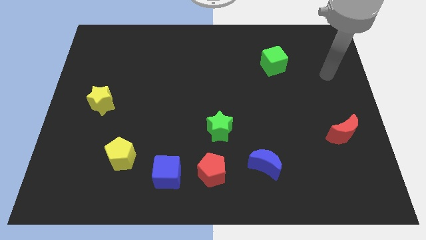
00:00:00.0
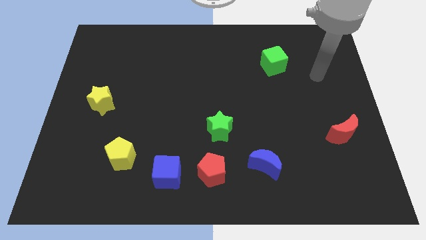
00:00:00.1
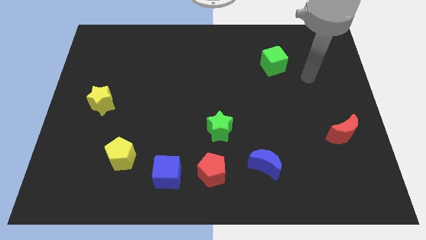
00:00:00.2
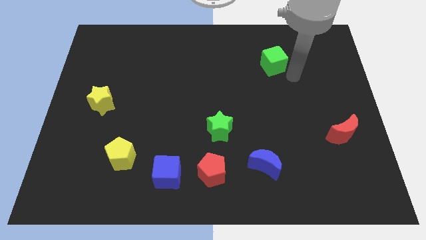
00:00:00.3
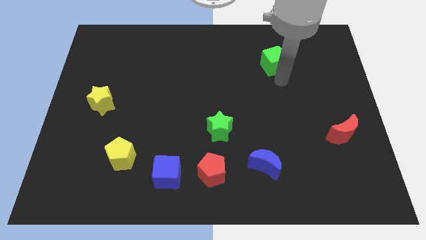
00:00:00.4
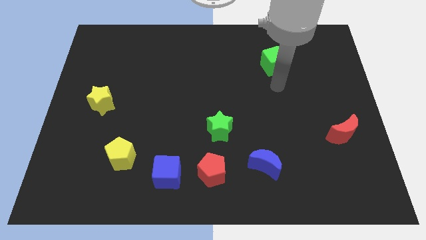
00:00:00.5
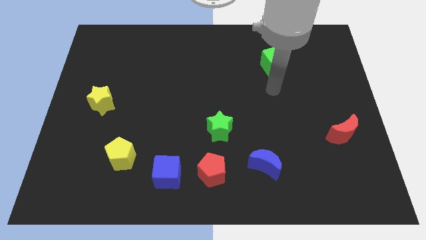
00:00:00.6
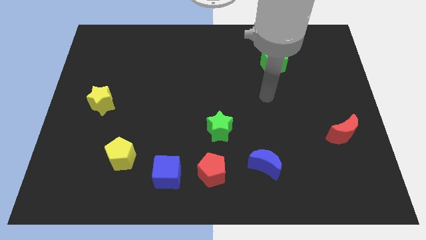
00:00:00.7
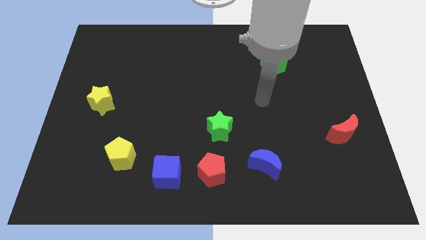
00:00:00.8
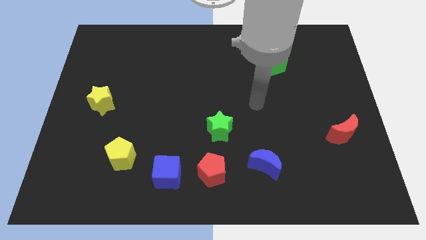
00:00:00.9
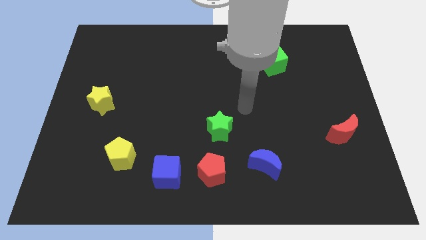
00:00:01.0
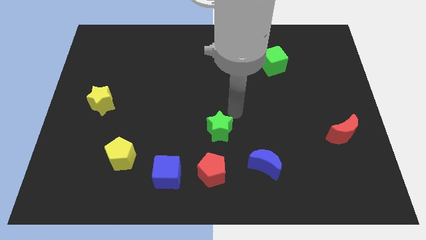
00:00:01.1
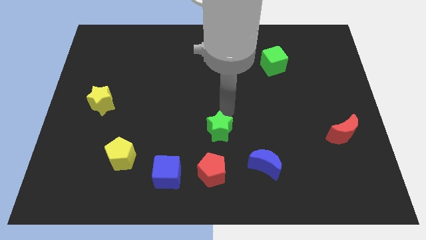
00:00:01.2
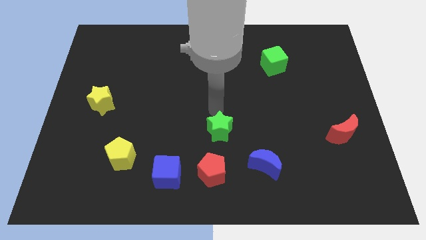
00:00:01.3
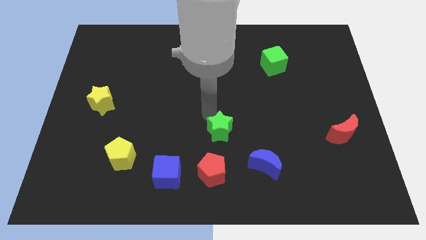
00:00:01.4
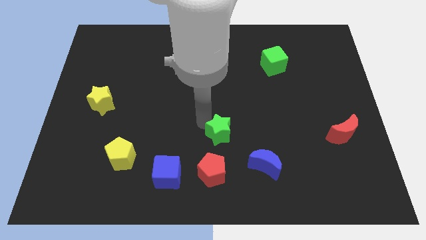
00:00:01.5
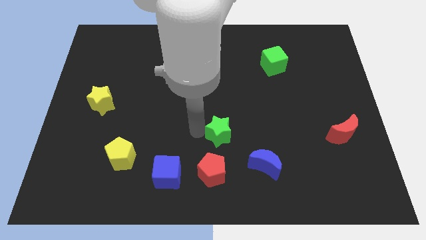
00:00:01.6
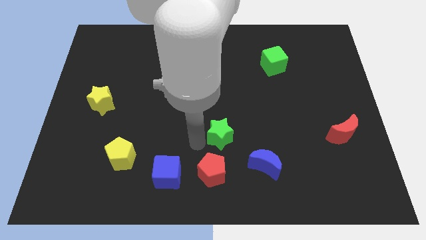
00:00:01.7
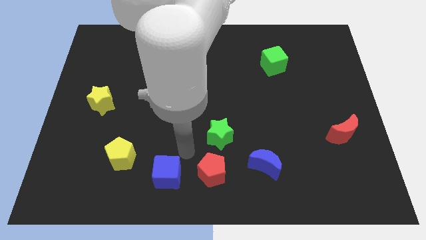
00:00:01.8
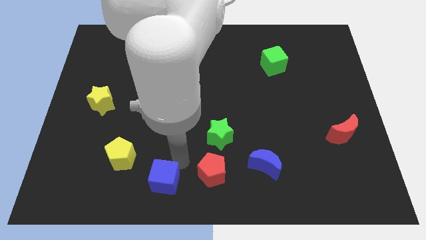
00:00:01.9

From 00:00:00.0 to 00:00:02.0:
pull the red pentagon apart from the blue cube

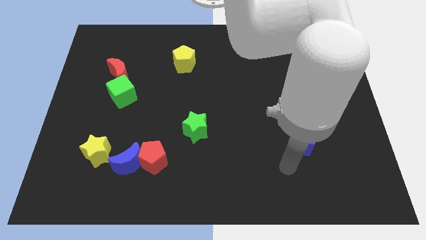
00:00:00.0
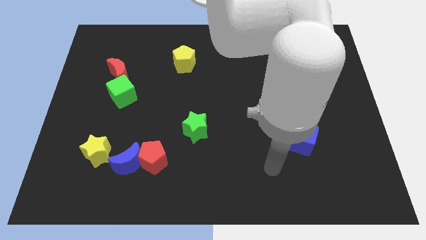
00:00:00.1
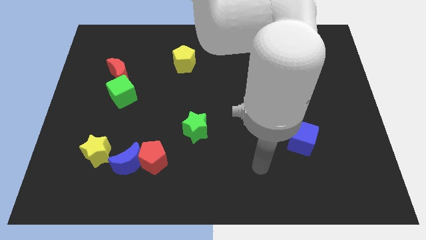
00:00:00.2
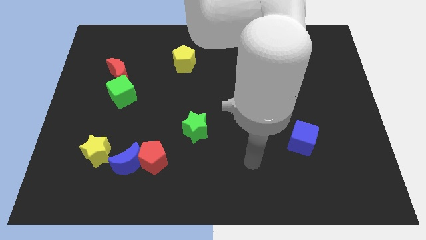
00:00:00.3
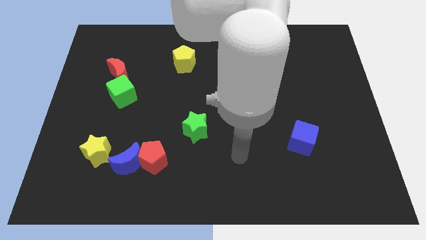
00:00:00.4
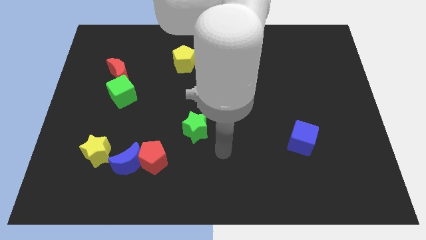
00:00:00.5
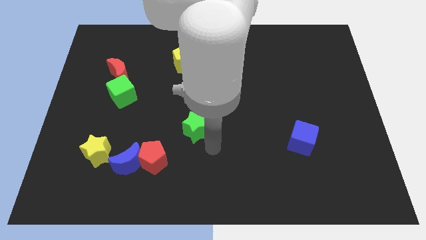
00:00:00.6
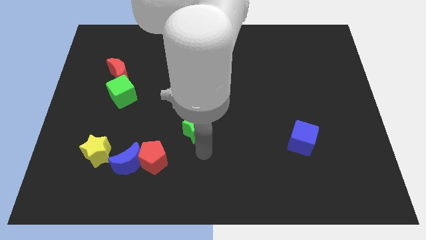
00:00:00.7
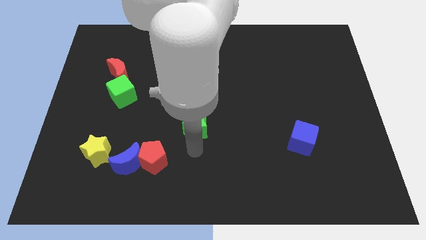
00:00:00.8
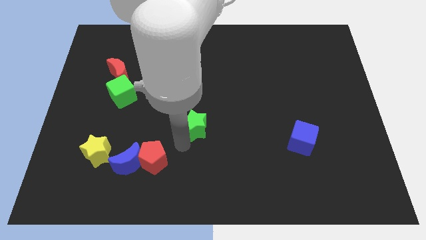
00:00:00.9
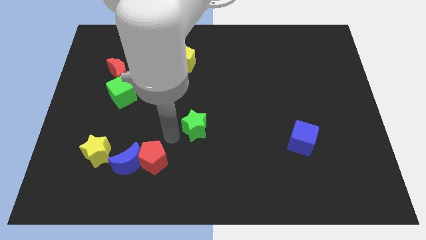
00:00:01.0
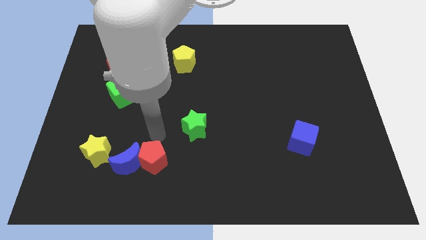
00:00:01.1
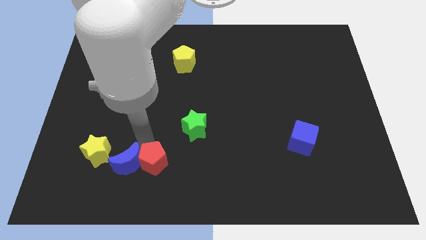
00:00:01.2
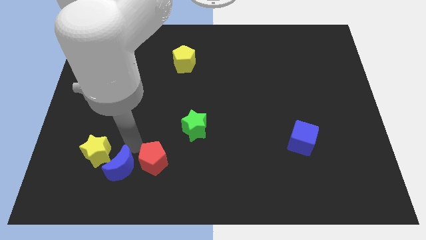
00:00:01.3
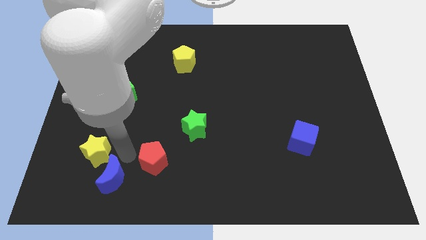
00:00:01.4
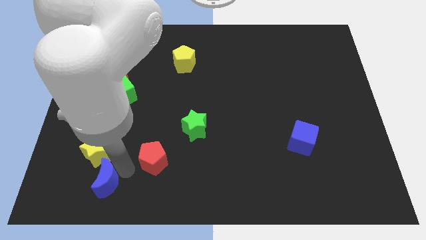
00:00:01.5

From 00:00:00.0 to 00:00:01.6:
separate the red pentagon from the blue moon

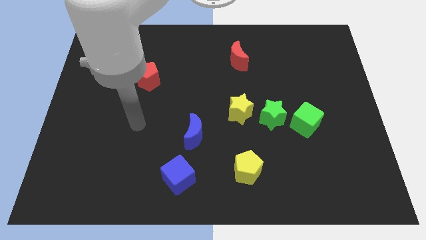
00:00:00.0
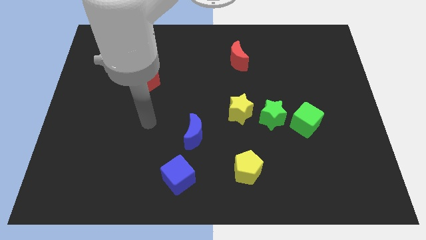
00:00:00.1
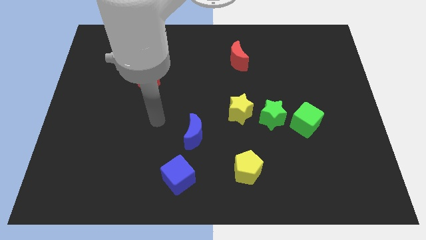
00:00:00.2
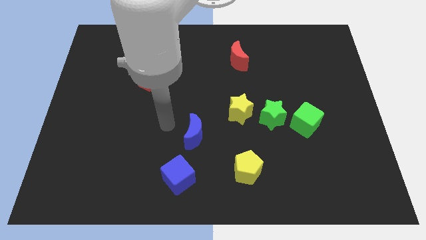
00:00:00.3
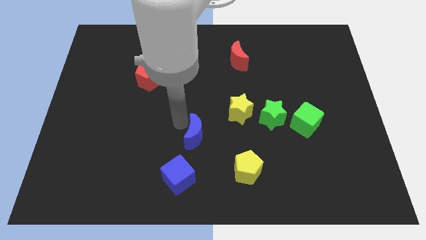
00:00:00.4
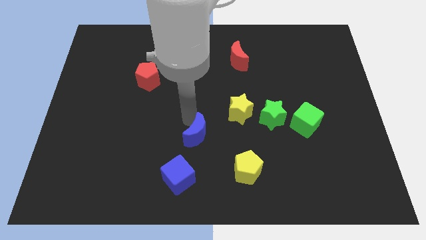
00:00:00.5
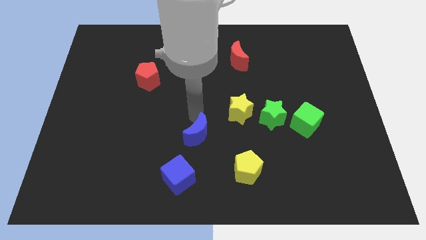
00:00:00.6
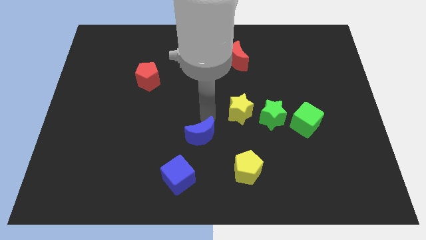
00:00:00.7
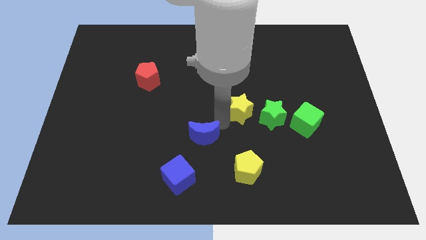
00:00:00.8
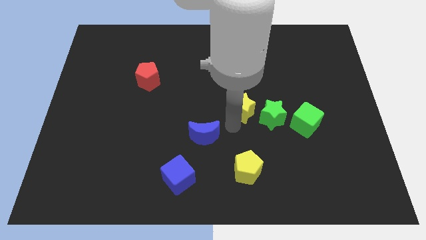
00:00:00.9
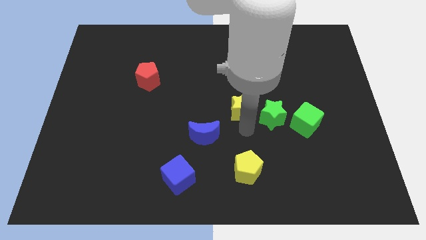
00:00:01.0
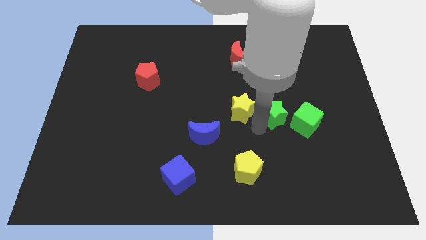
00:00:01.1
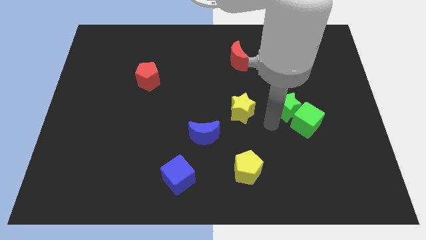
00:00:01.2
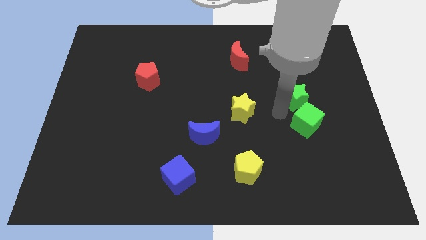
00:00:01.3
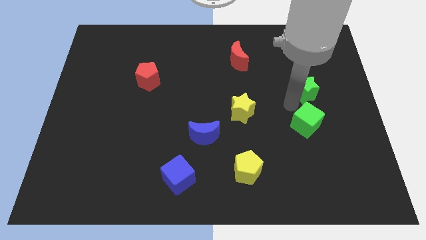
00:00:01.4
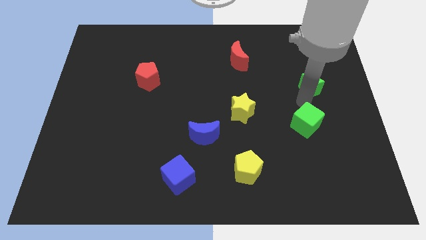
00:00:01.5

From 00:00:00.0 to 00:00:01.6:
move the green cube away from the green star

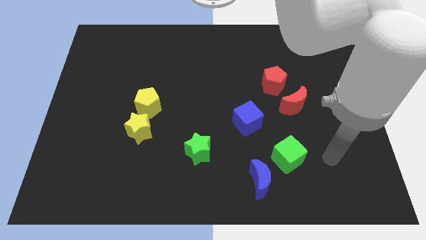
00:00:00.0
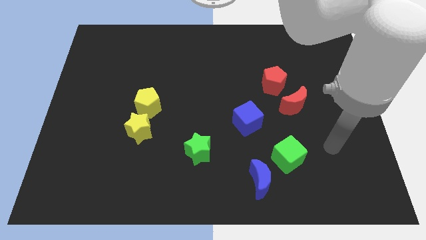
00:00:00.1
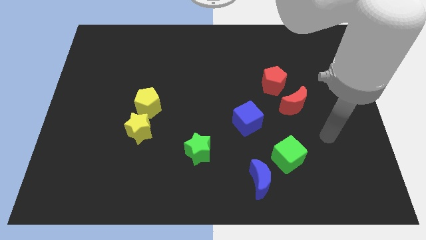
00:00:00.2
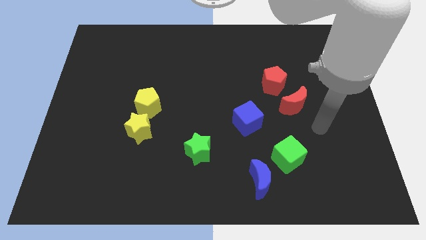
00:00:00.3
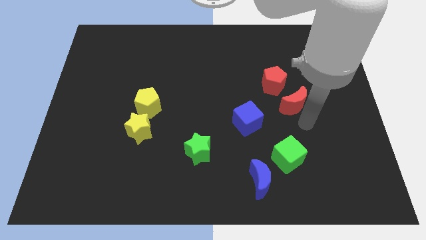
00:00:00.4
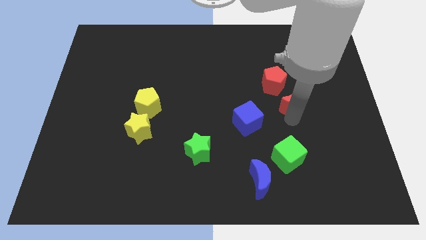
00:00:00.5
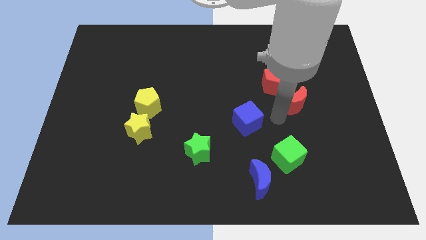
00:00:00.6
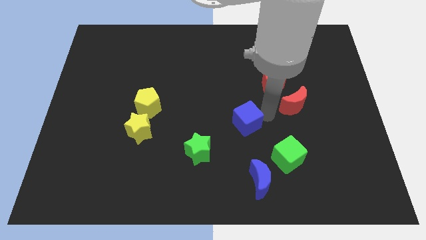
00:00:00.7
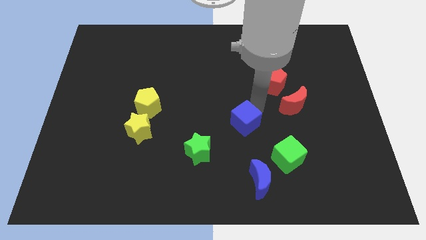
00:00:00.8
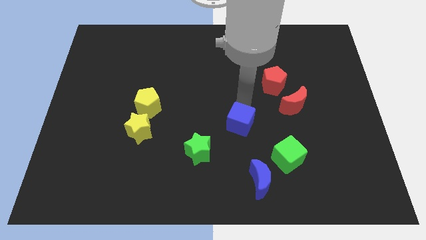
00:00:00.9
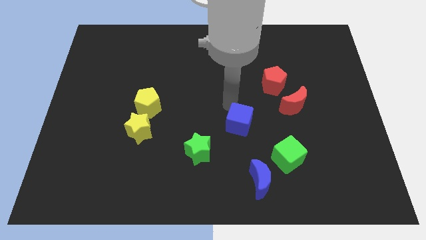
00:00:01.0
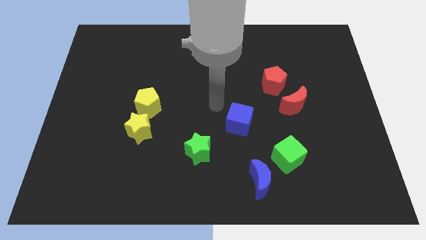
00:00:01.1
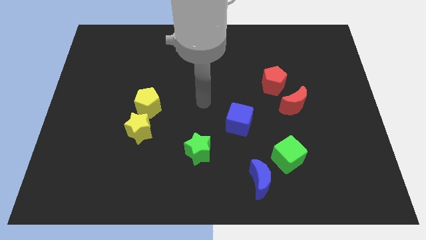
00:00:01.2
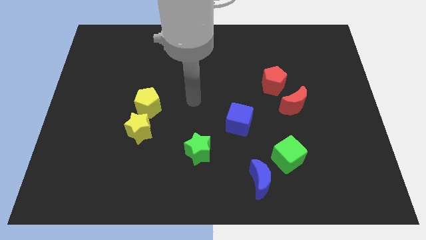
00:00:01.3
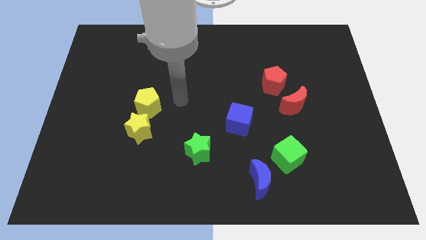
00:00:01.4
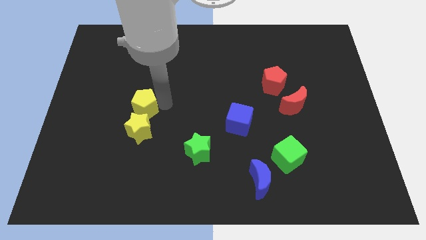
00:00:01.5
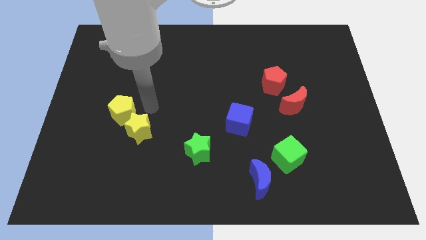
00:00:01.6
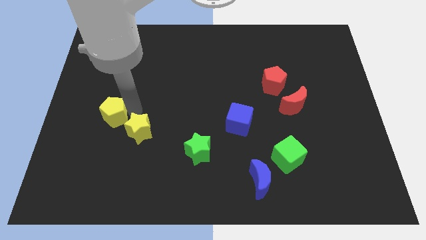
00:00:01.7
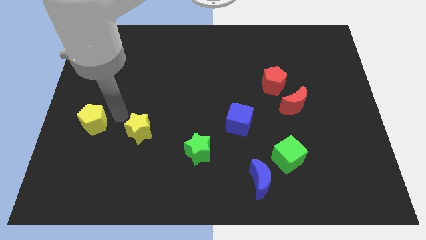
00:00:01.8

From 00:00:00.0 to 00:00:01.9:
separate the yellow star from the yellow pentagon

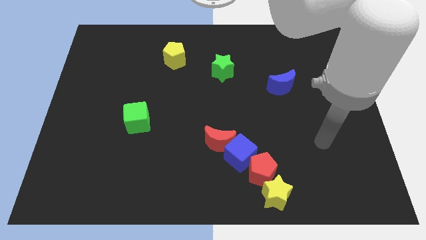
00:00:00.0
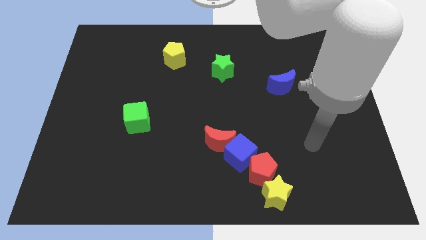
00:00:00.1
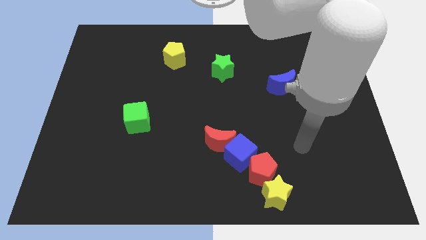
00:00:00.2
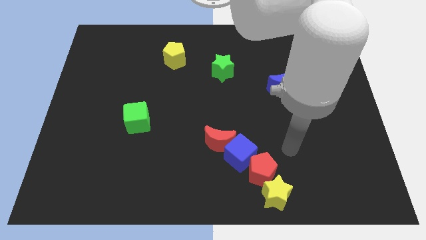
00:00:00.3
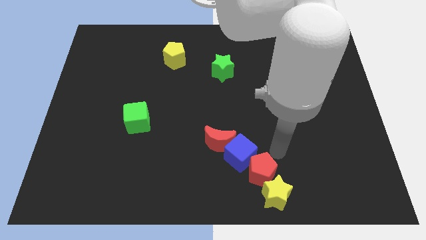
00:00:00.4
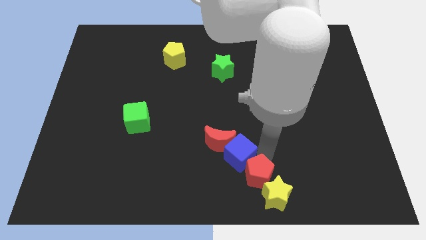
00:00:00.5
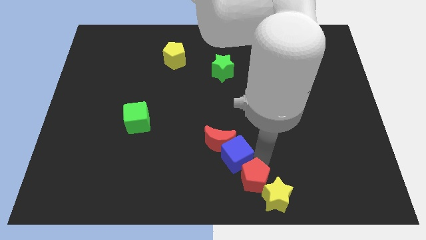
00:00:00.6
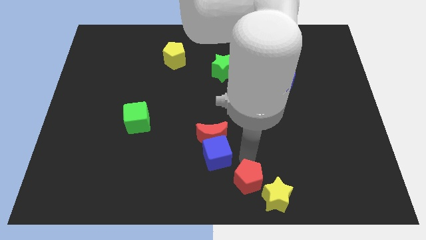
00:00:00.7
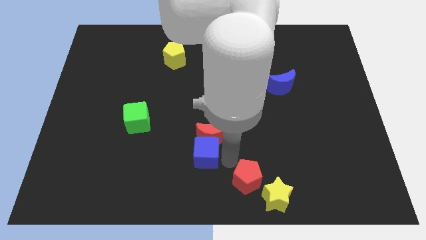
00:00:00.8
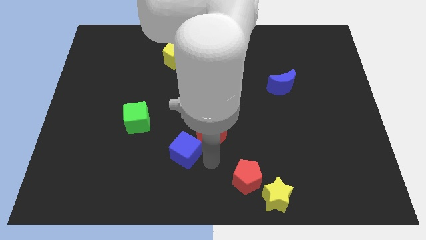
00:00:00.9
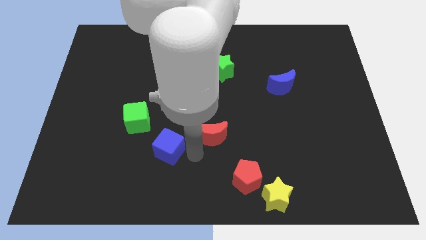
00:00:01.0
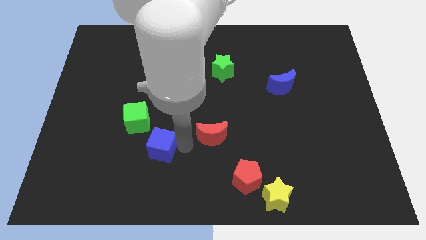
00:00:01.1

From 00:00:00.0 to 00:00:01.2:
pull the red moon apart from the blue cube

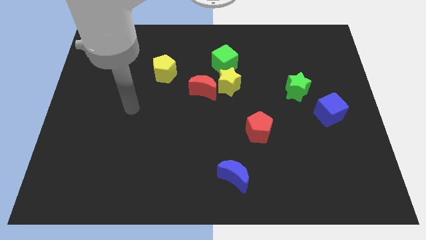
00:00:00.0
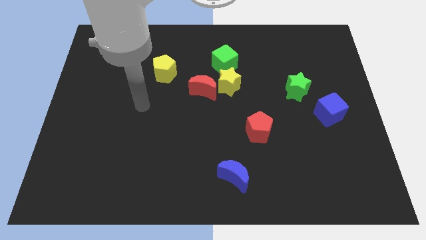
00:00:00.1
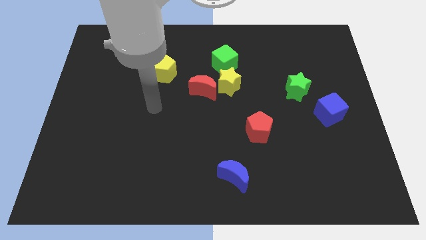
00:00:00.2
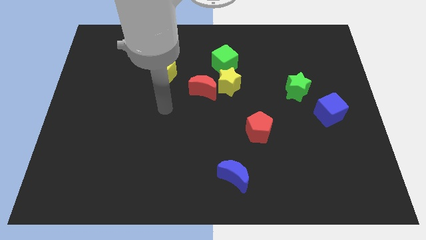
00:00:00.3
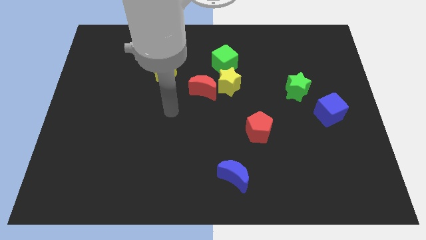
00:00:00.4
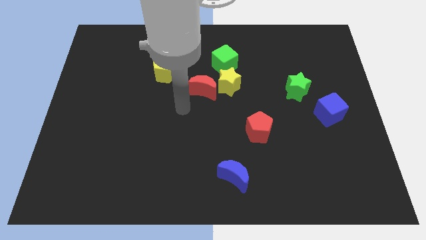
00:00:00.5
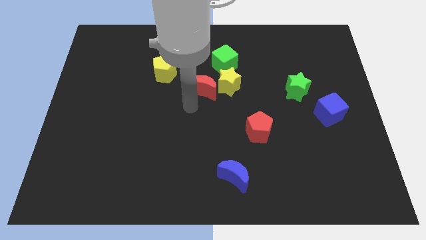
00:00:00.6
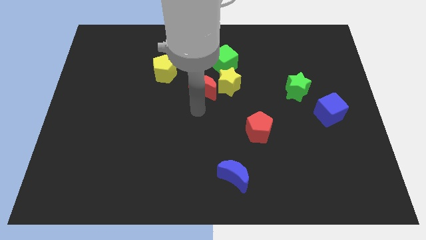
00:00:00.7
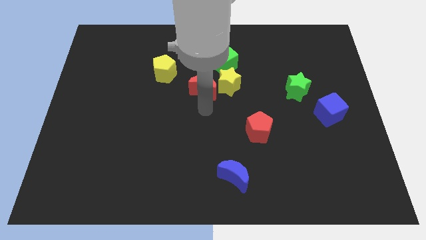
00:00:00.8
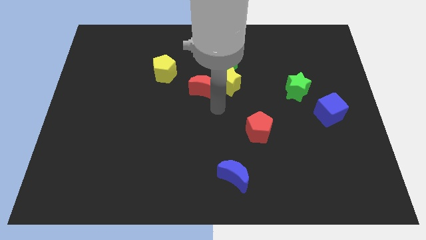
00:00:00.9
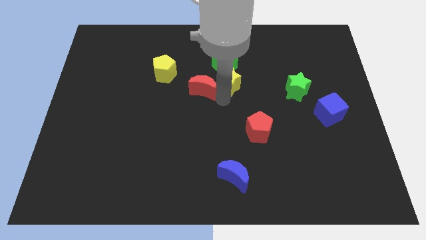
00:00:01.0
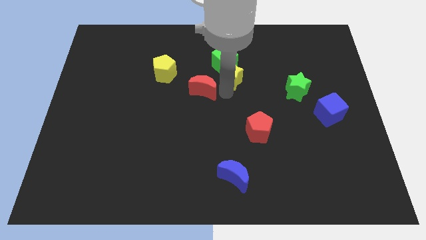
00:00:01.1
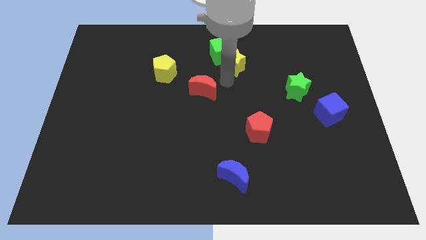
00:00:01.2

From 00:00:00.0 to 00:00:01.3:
pull the red moon apart from the yellow star
